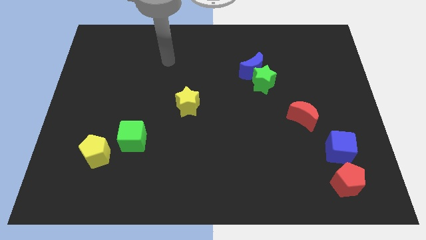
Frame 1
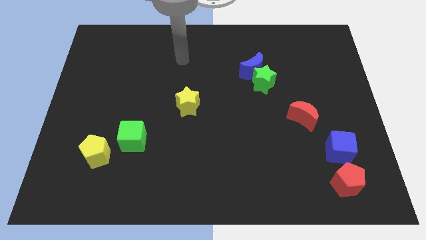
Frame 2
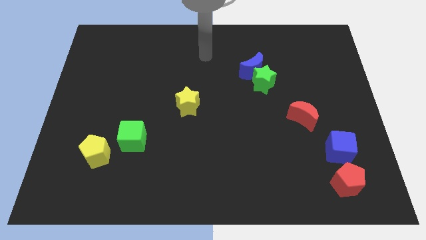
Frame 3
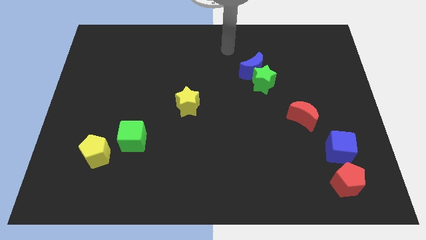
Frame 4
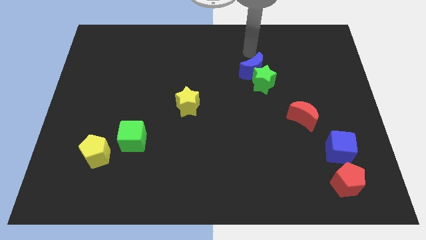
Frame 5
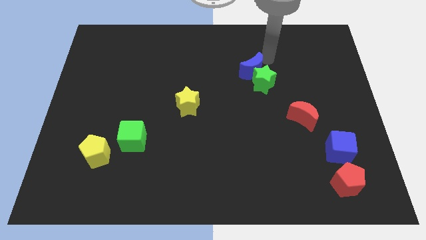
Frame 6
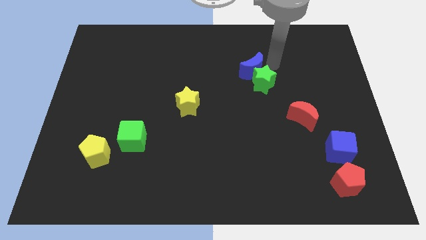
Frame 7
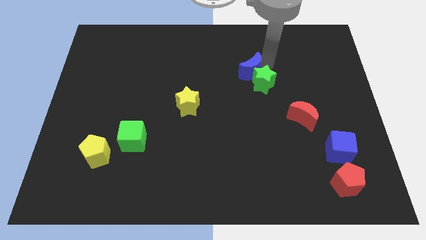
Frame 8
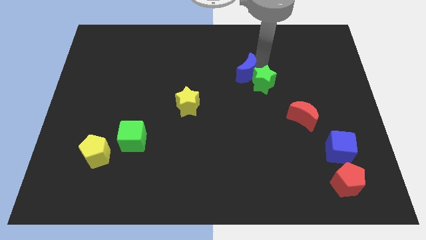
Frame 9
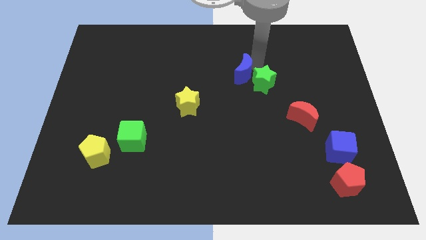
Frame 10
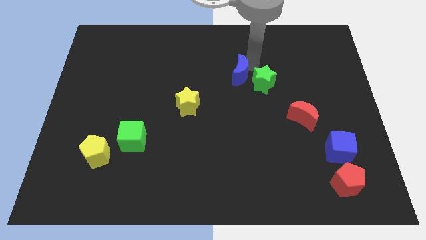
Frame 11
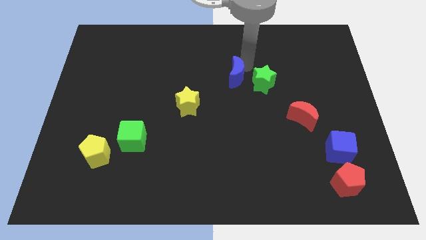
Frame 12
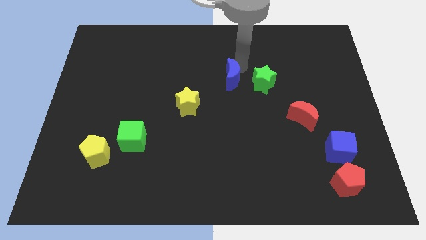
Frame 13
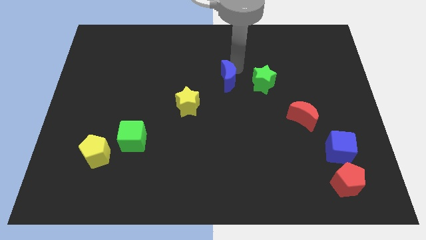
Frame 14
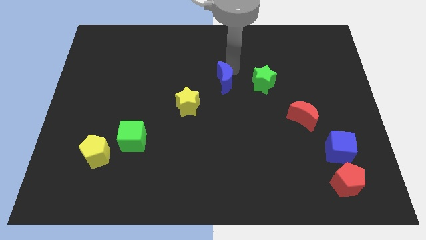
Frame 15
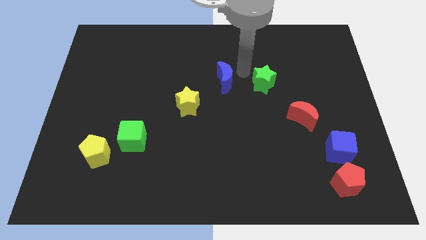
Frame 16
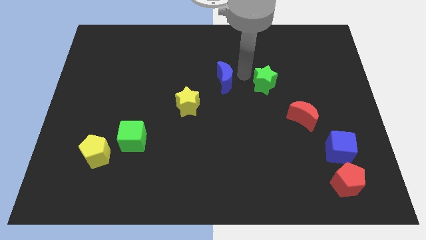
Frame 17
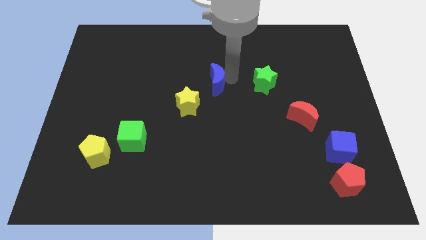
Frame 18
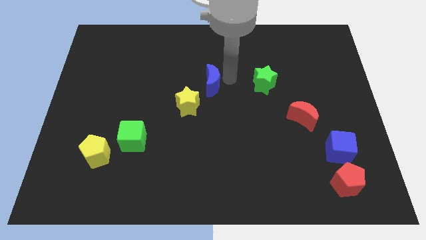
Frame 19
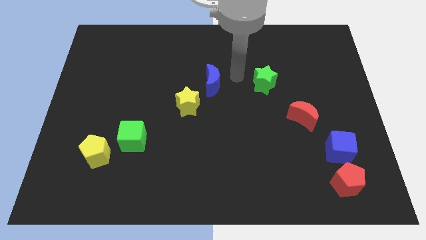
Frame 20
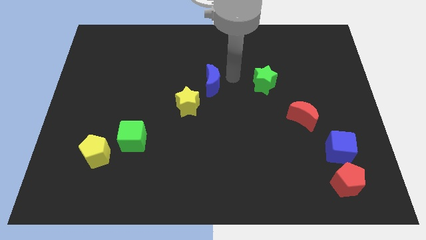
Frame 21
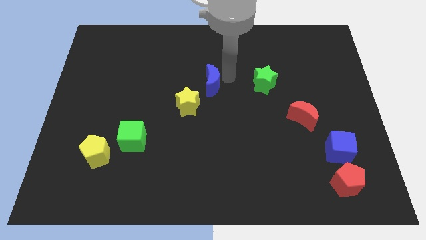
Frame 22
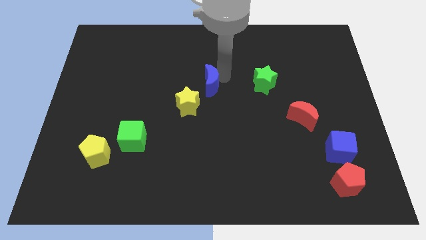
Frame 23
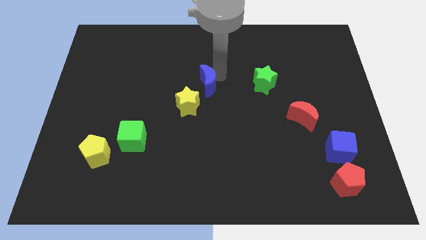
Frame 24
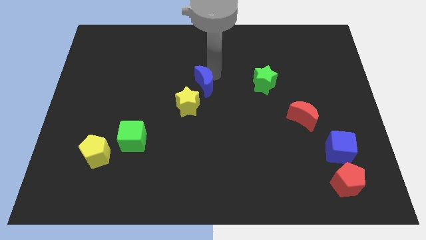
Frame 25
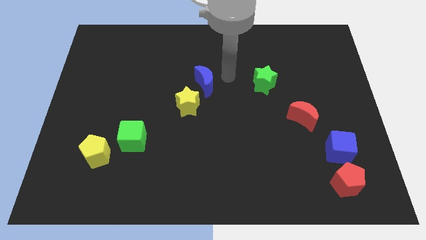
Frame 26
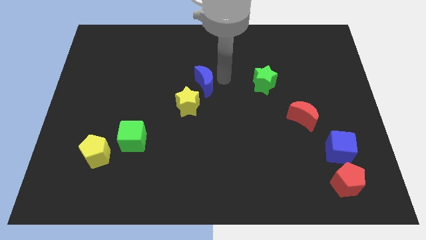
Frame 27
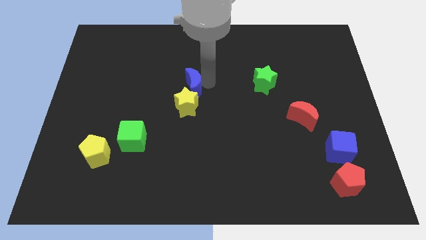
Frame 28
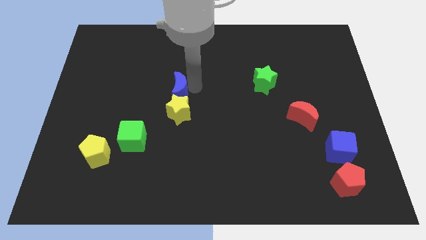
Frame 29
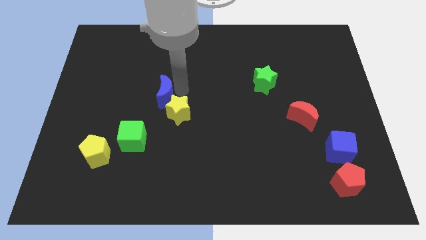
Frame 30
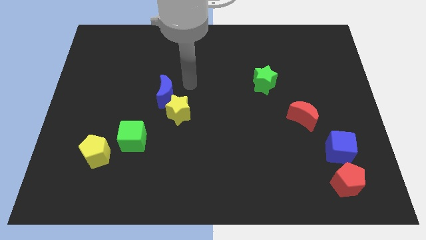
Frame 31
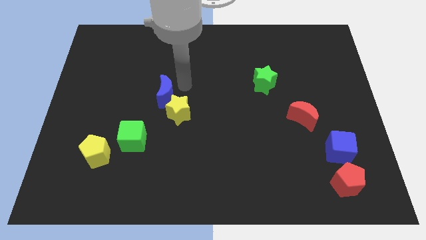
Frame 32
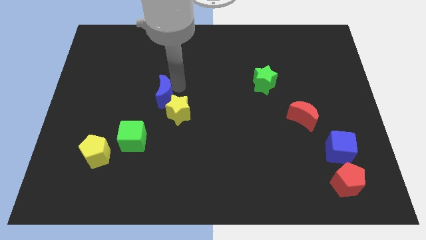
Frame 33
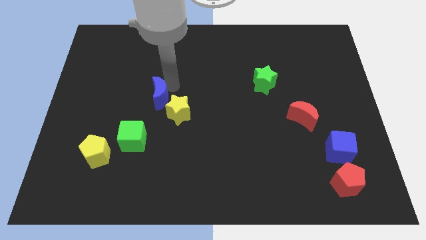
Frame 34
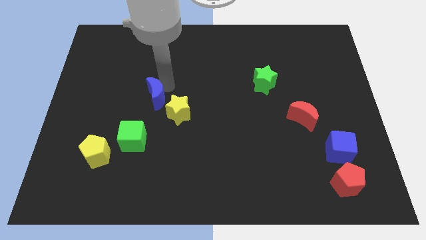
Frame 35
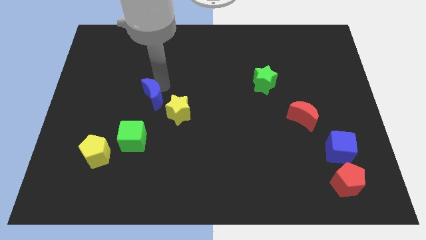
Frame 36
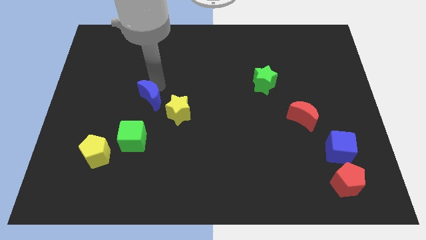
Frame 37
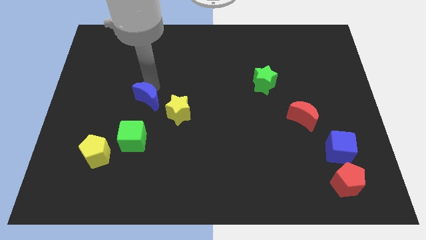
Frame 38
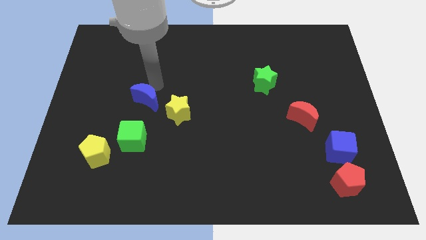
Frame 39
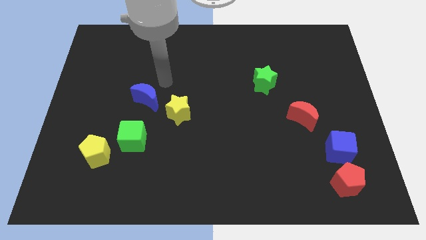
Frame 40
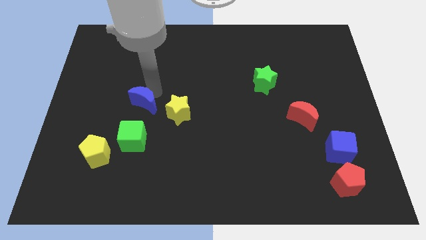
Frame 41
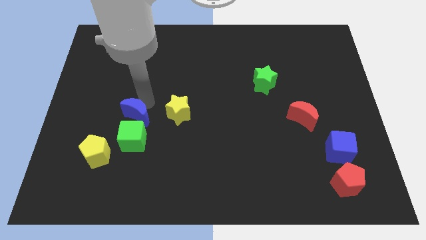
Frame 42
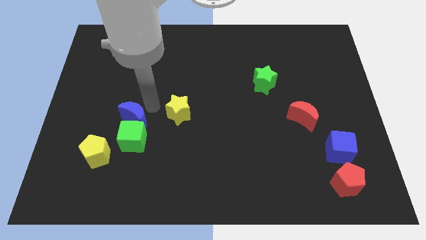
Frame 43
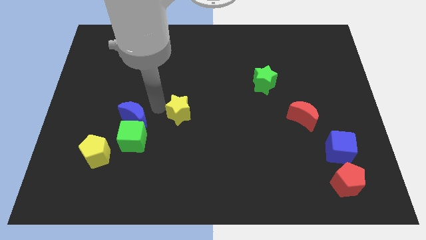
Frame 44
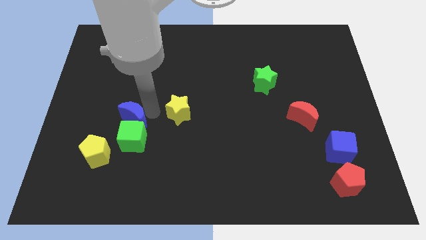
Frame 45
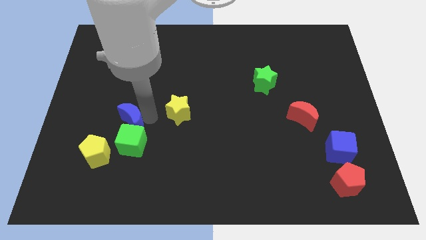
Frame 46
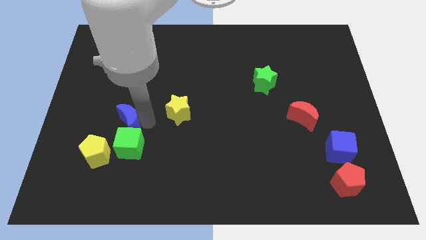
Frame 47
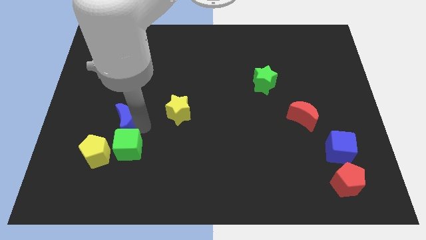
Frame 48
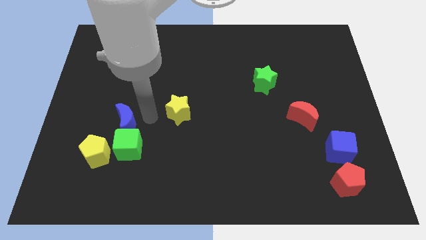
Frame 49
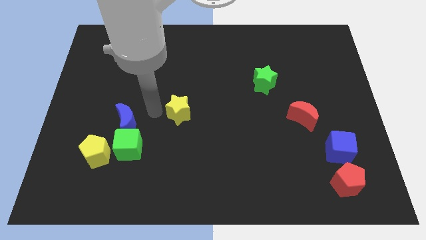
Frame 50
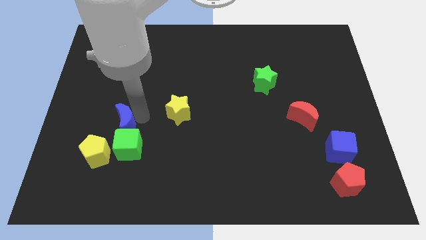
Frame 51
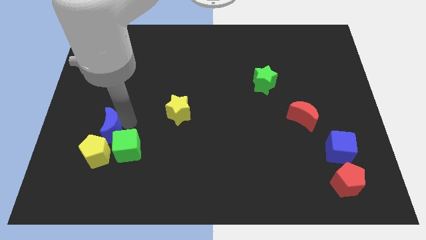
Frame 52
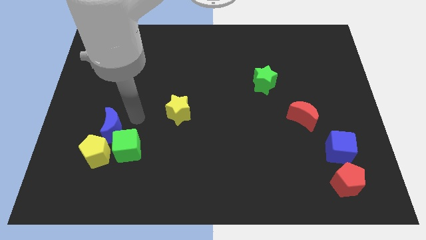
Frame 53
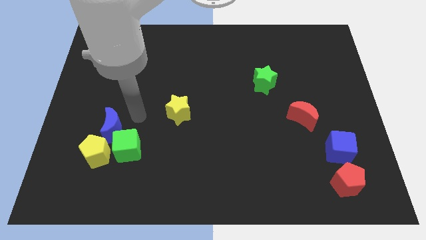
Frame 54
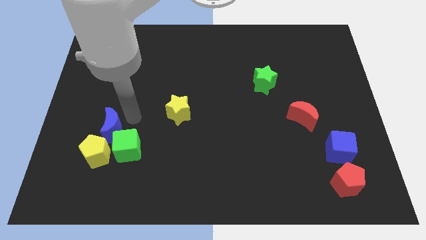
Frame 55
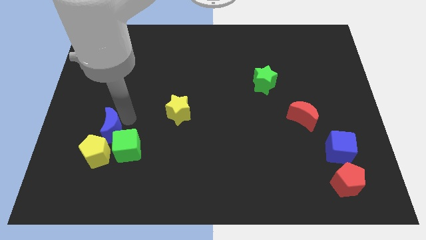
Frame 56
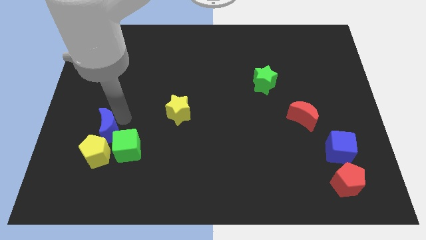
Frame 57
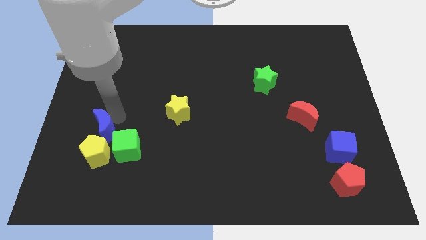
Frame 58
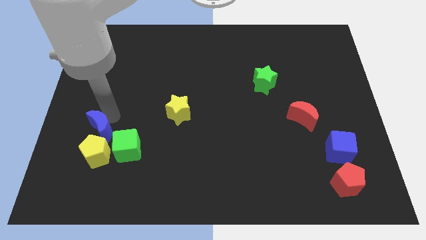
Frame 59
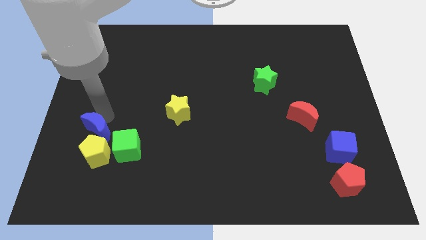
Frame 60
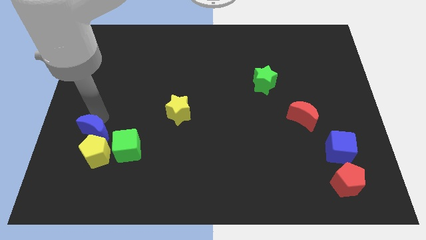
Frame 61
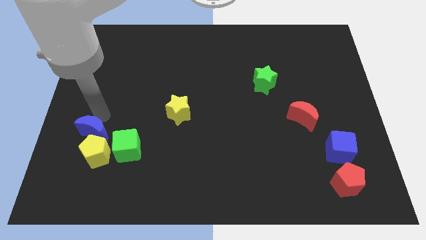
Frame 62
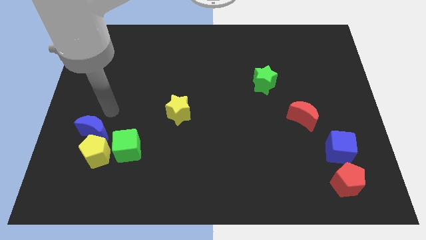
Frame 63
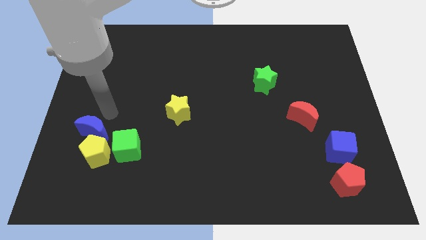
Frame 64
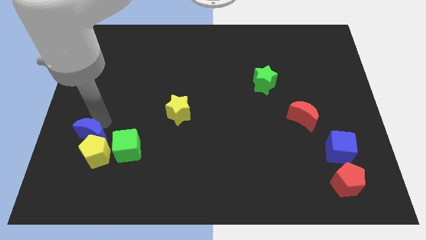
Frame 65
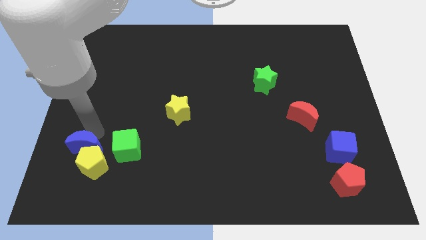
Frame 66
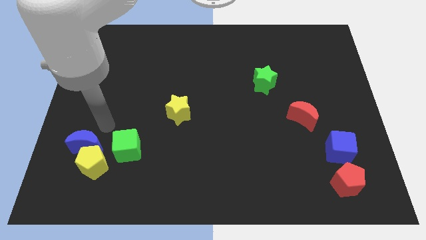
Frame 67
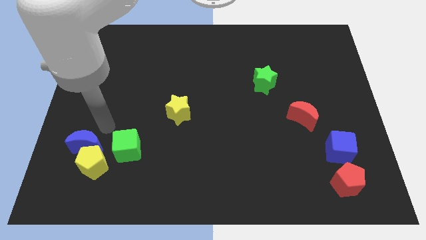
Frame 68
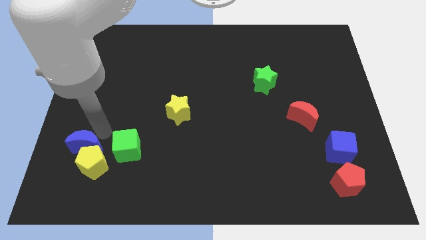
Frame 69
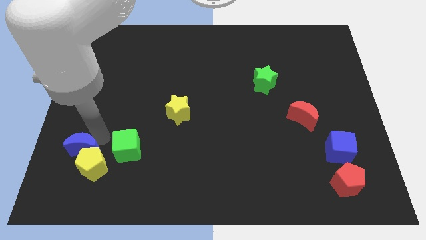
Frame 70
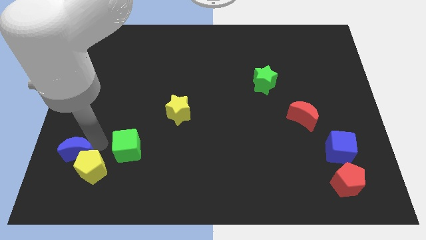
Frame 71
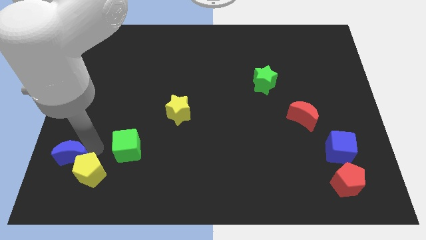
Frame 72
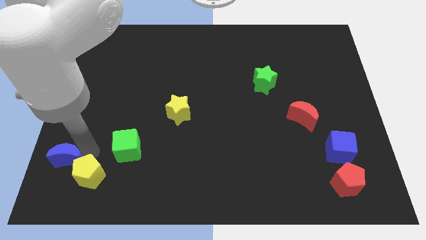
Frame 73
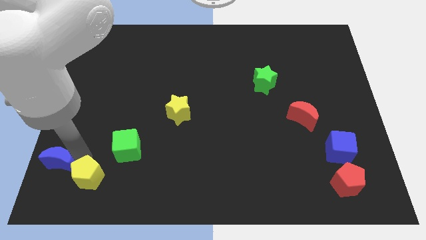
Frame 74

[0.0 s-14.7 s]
put the blue moon to the lower left corner
